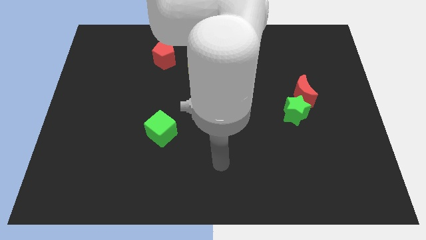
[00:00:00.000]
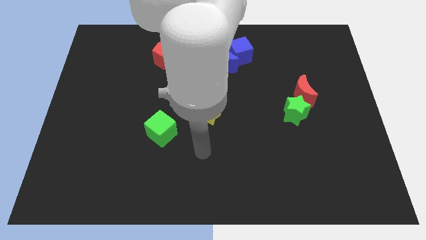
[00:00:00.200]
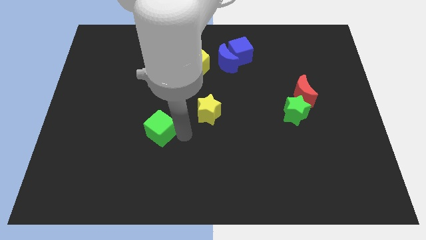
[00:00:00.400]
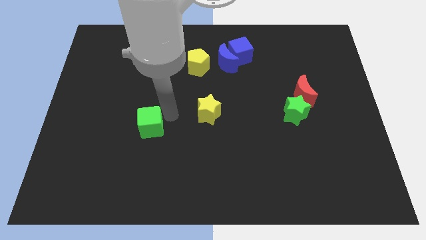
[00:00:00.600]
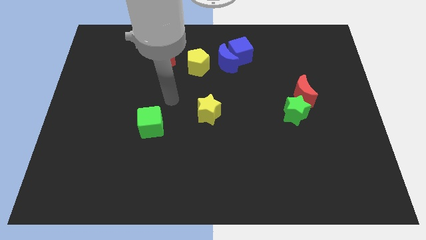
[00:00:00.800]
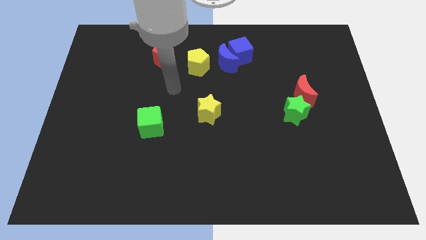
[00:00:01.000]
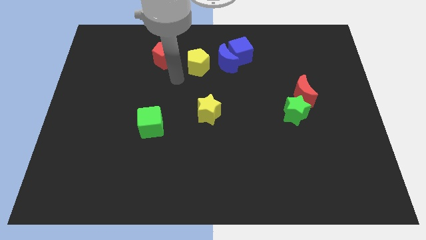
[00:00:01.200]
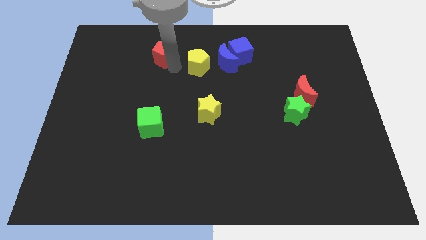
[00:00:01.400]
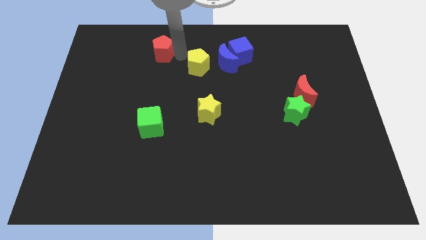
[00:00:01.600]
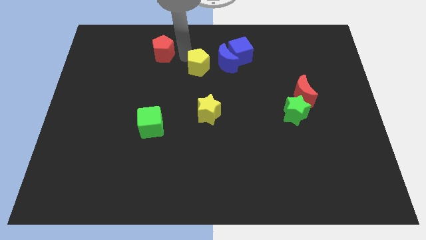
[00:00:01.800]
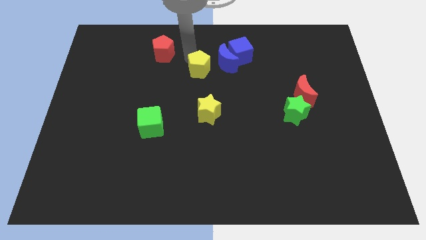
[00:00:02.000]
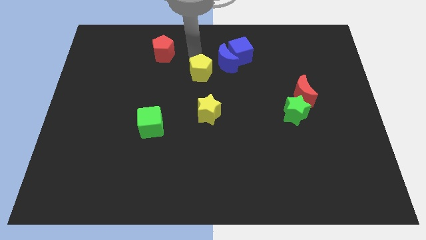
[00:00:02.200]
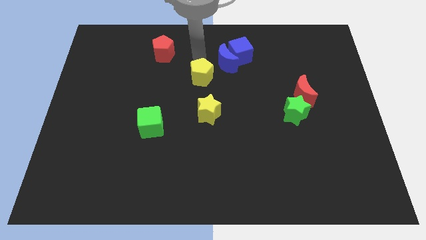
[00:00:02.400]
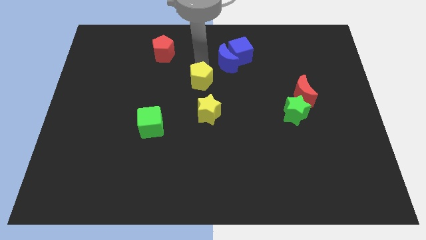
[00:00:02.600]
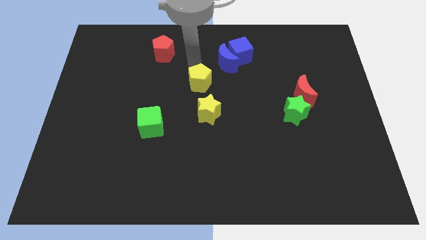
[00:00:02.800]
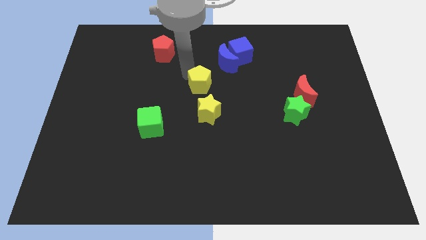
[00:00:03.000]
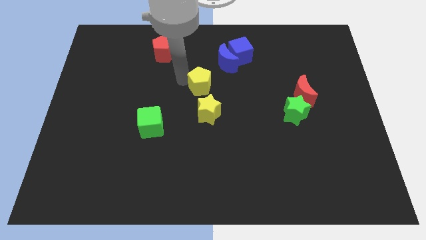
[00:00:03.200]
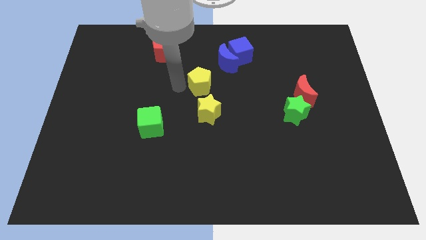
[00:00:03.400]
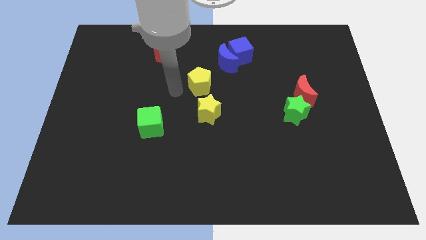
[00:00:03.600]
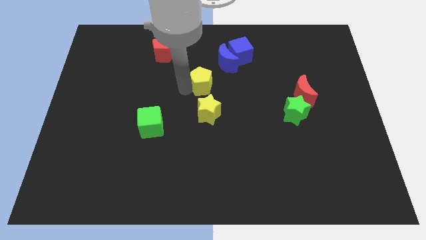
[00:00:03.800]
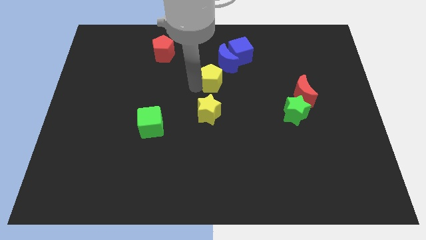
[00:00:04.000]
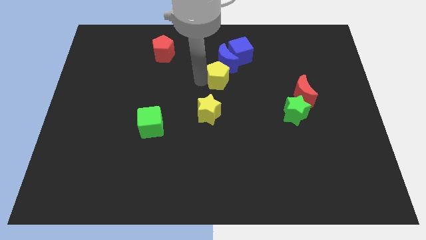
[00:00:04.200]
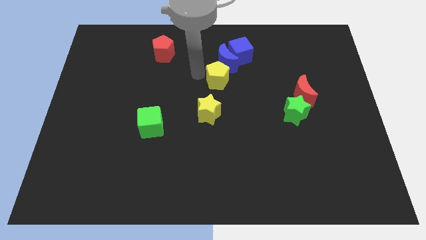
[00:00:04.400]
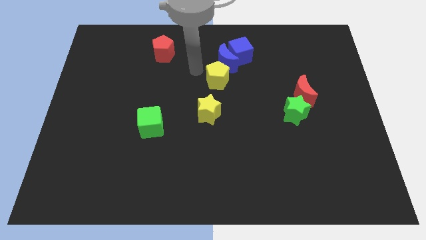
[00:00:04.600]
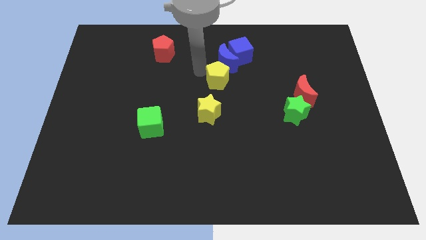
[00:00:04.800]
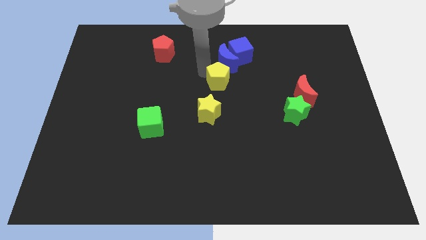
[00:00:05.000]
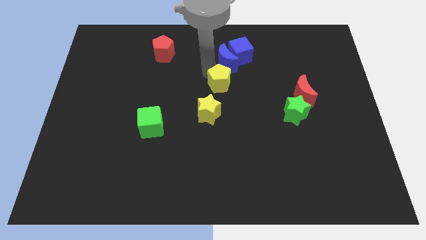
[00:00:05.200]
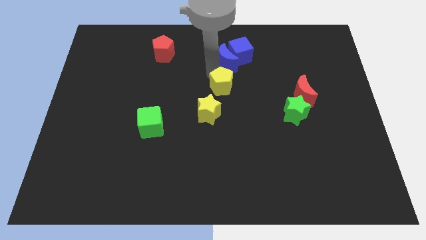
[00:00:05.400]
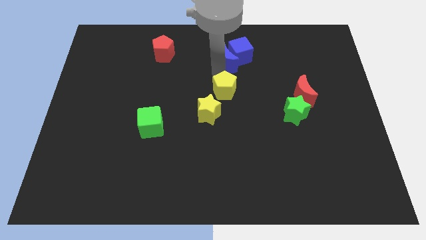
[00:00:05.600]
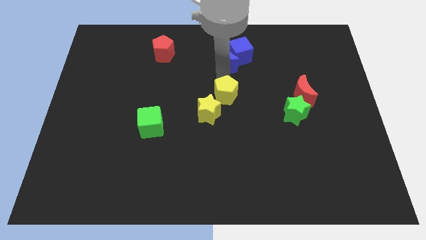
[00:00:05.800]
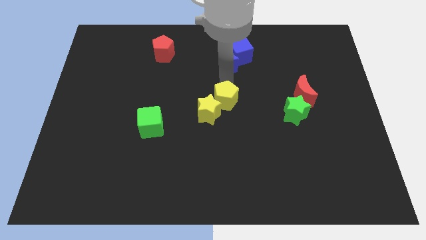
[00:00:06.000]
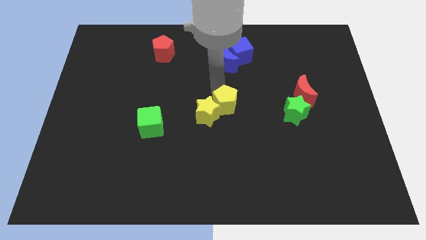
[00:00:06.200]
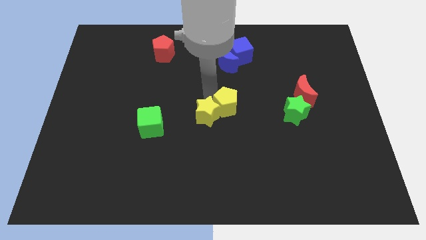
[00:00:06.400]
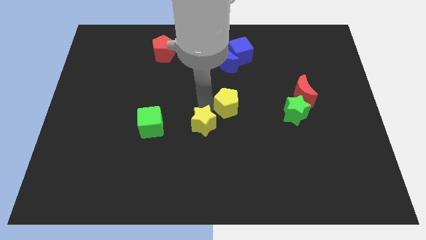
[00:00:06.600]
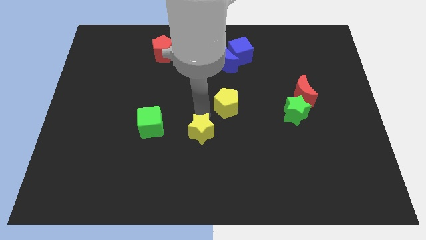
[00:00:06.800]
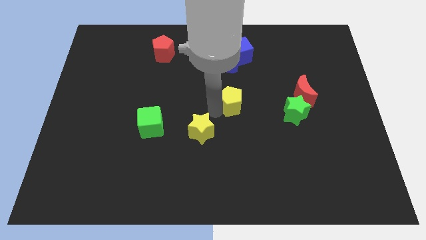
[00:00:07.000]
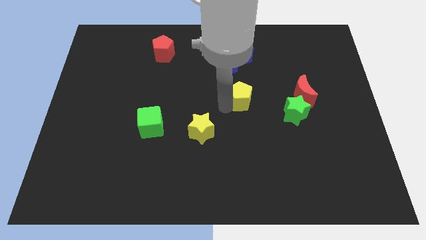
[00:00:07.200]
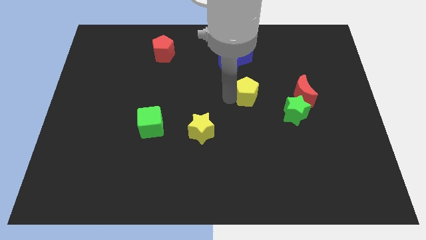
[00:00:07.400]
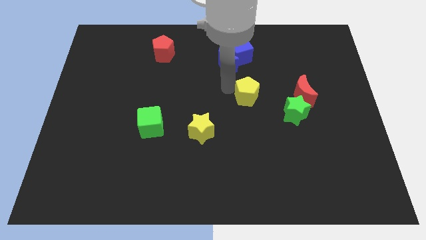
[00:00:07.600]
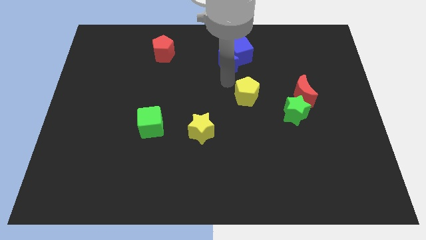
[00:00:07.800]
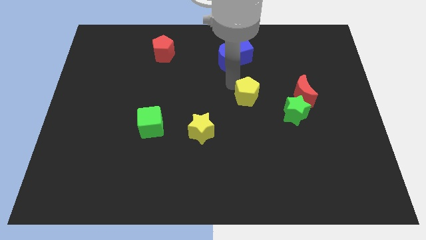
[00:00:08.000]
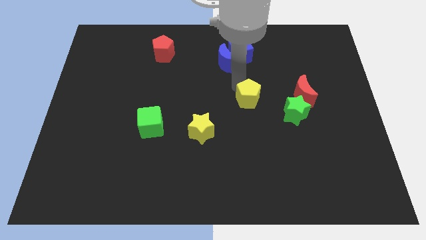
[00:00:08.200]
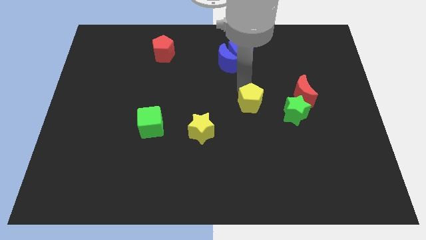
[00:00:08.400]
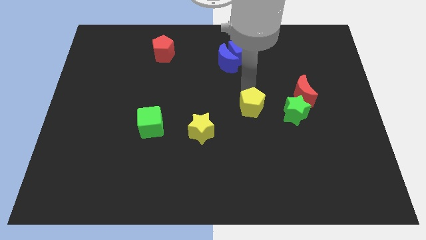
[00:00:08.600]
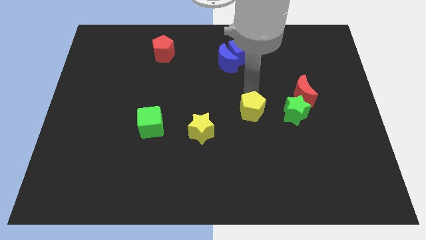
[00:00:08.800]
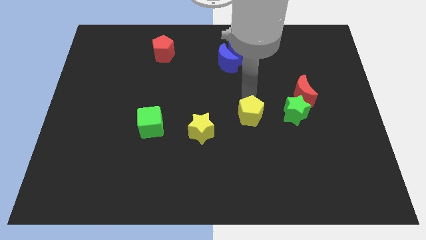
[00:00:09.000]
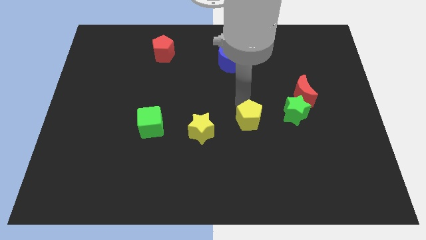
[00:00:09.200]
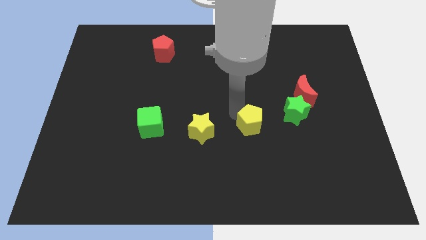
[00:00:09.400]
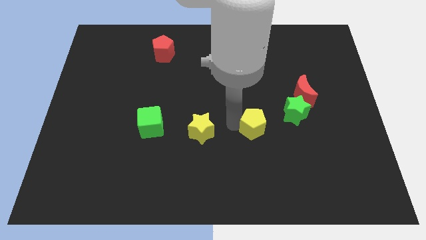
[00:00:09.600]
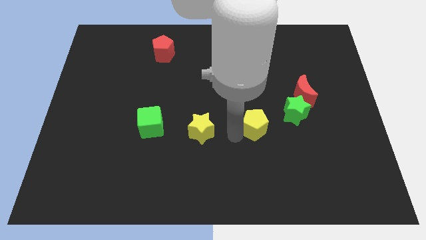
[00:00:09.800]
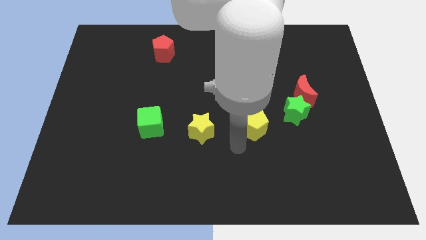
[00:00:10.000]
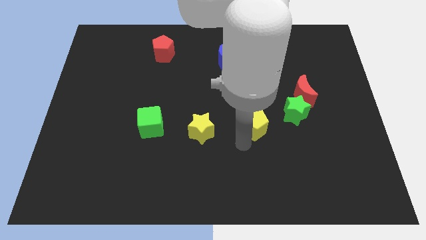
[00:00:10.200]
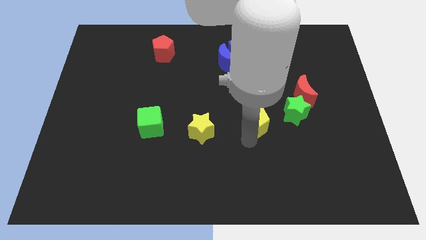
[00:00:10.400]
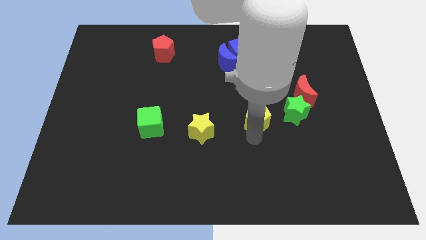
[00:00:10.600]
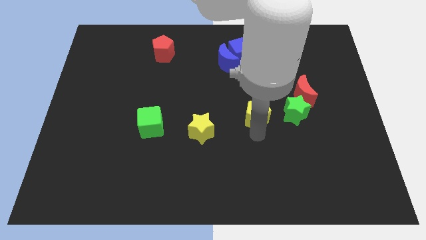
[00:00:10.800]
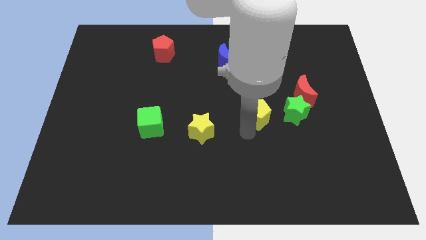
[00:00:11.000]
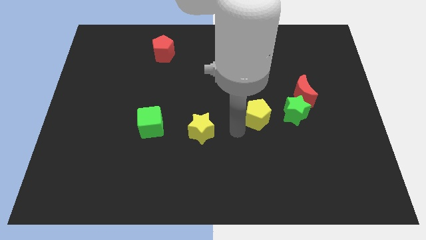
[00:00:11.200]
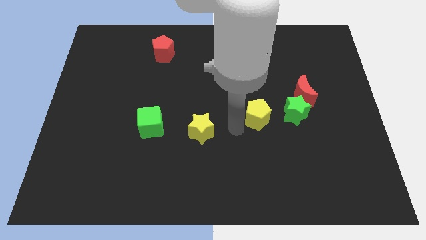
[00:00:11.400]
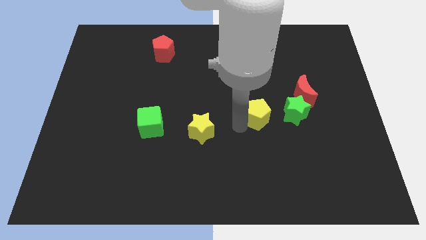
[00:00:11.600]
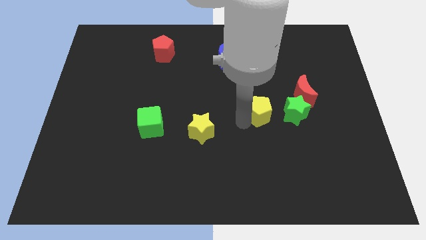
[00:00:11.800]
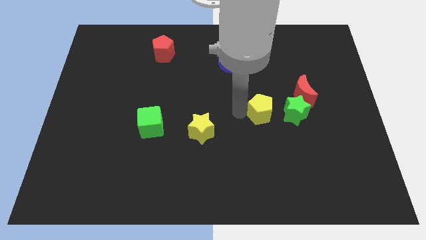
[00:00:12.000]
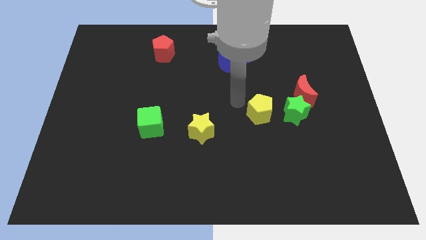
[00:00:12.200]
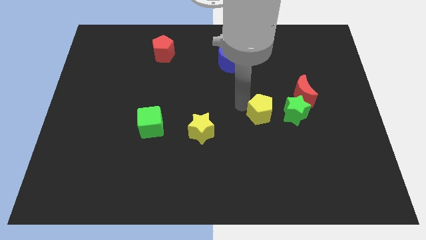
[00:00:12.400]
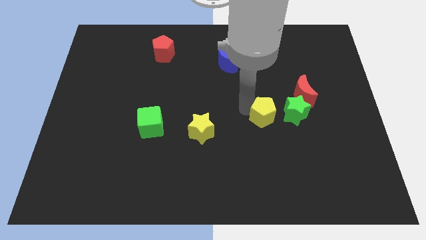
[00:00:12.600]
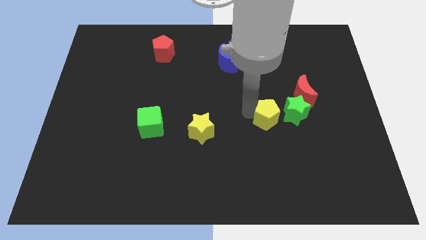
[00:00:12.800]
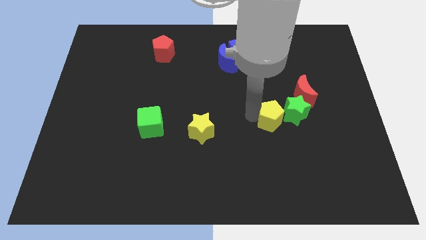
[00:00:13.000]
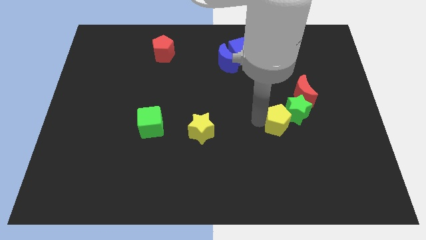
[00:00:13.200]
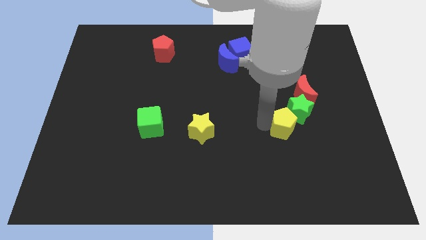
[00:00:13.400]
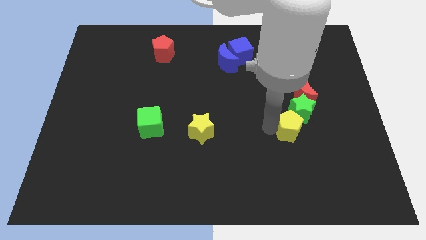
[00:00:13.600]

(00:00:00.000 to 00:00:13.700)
push the yellow pentagon to the bottom of the red moon
